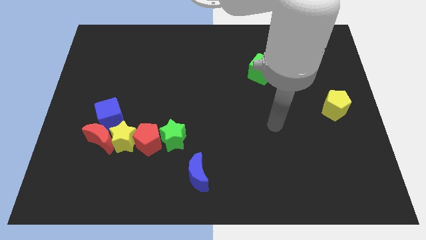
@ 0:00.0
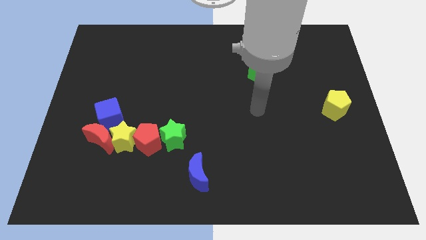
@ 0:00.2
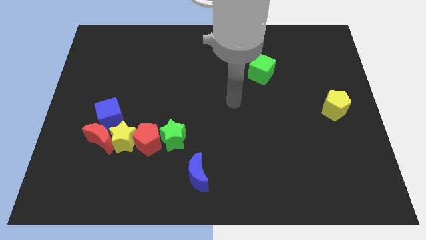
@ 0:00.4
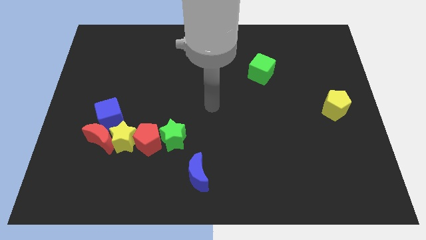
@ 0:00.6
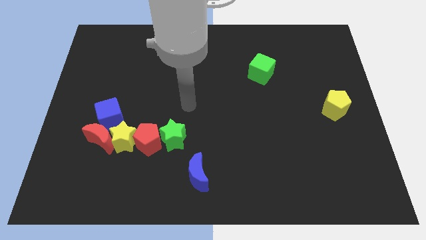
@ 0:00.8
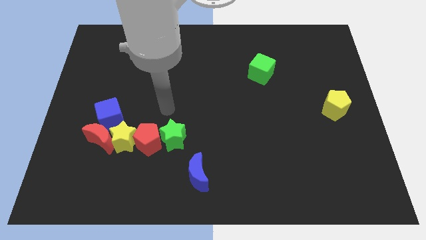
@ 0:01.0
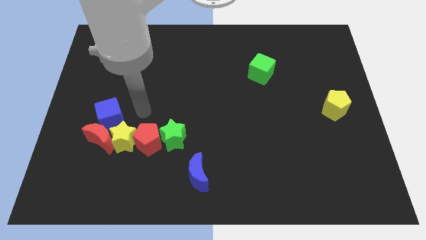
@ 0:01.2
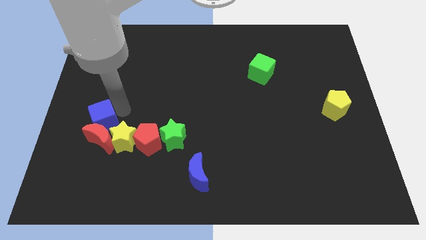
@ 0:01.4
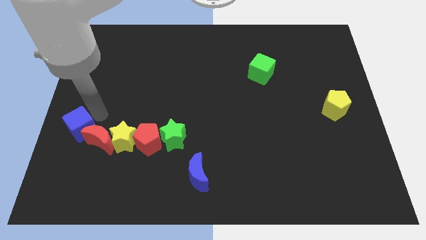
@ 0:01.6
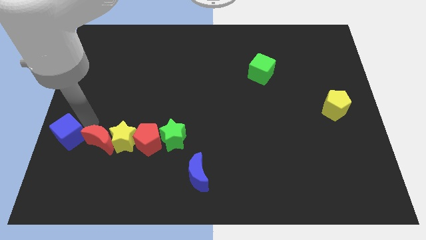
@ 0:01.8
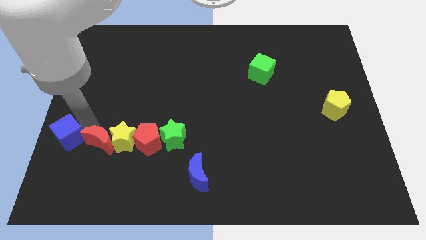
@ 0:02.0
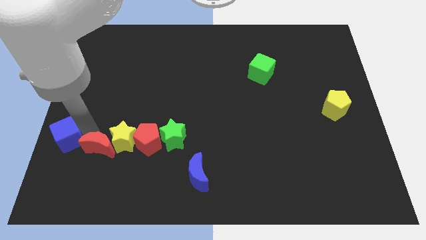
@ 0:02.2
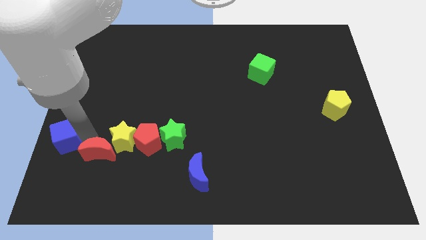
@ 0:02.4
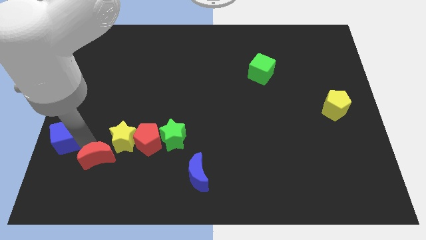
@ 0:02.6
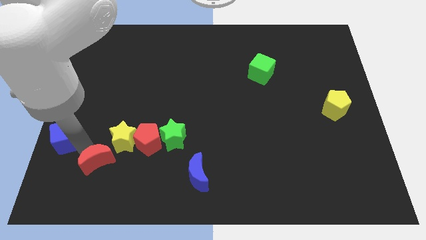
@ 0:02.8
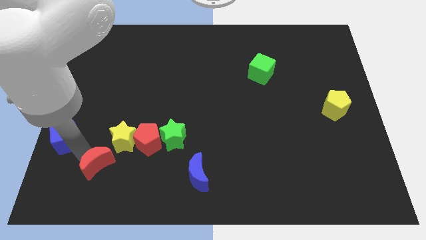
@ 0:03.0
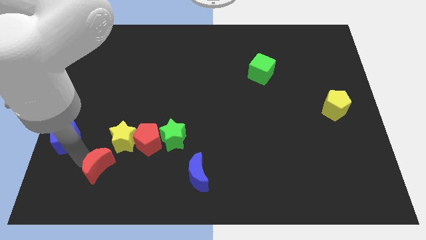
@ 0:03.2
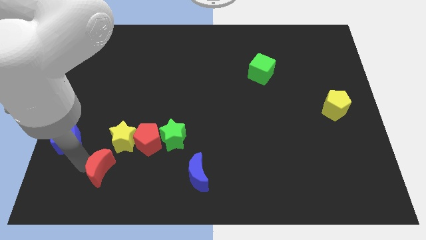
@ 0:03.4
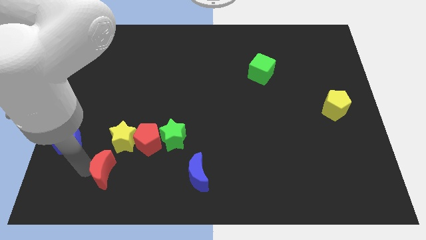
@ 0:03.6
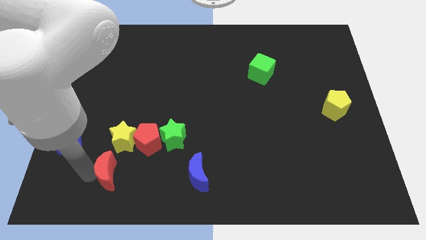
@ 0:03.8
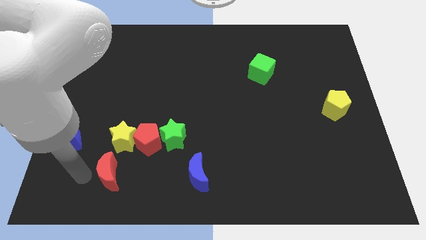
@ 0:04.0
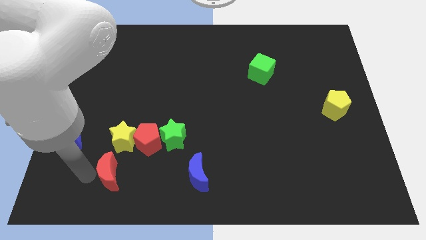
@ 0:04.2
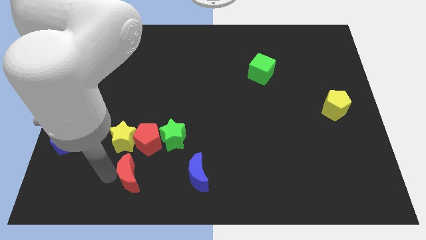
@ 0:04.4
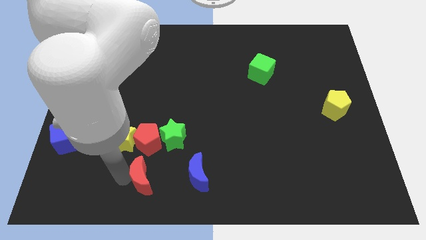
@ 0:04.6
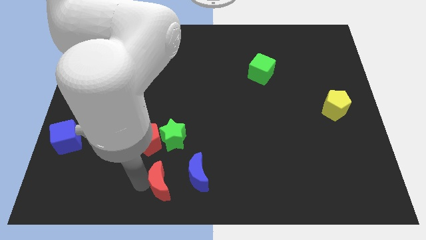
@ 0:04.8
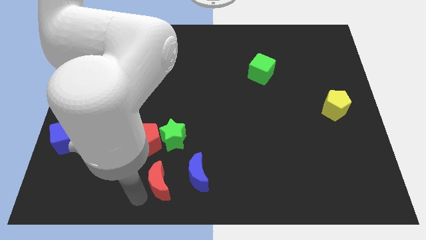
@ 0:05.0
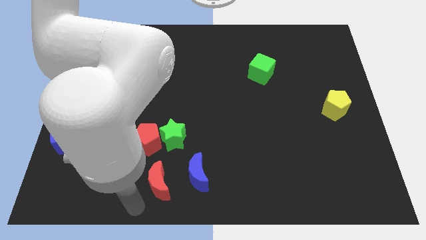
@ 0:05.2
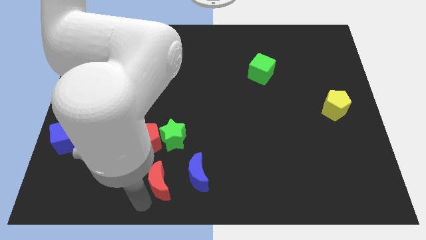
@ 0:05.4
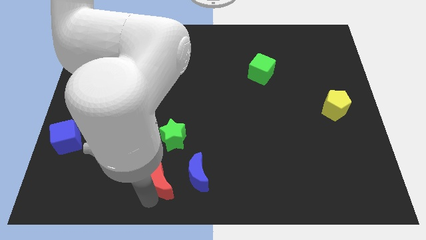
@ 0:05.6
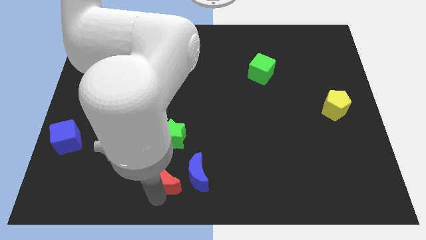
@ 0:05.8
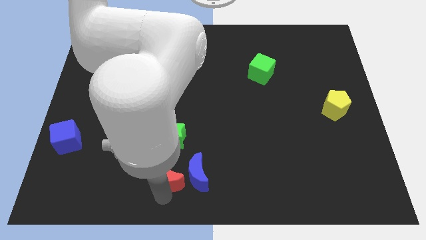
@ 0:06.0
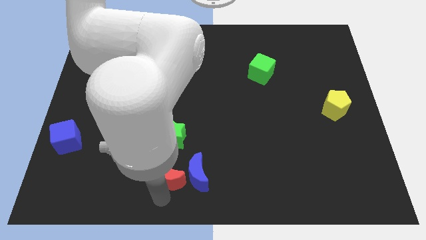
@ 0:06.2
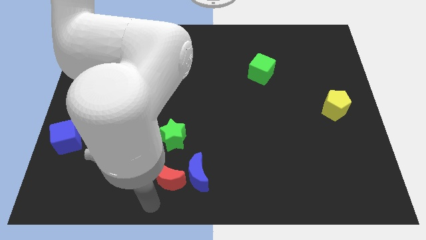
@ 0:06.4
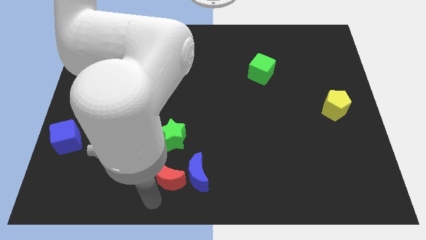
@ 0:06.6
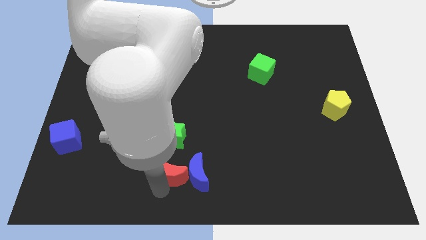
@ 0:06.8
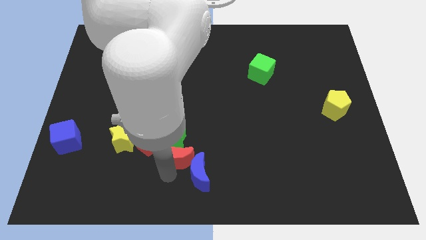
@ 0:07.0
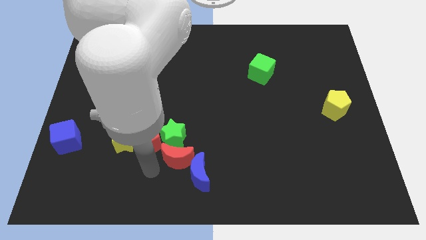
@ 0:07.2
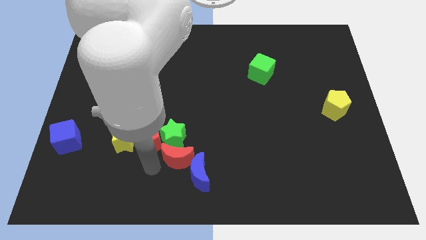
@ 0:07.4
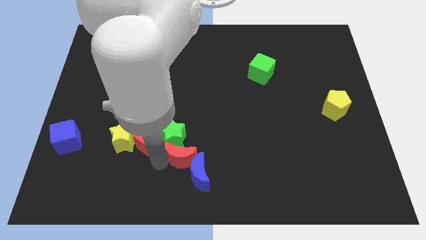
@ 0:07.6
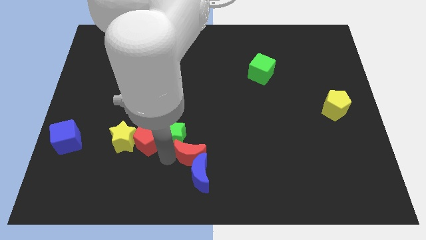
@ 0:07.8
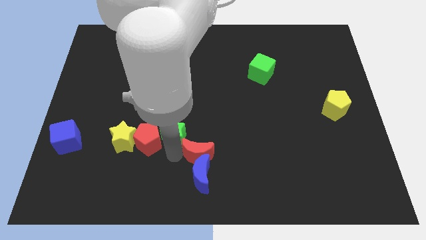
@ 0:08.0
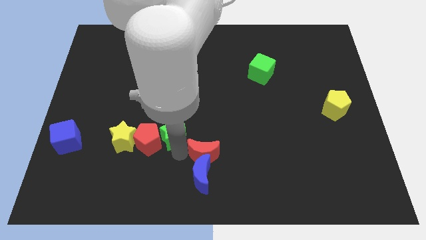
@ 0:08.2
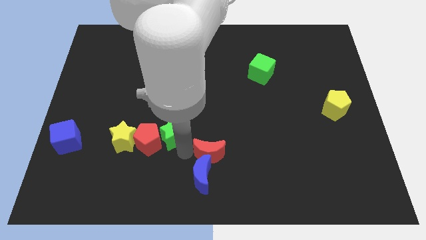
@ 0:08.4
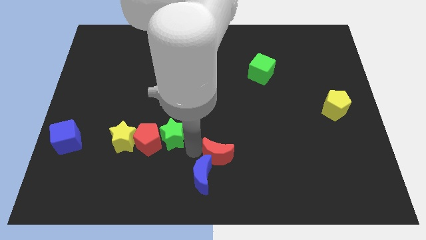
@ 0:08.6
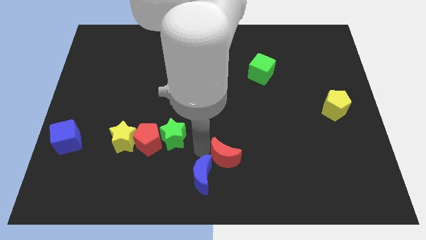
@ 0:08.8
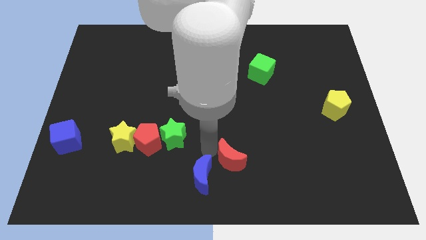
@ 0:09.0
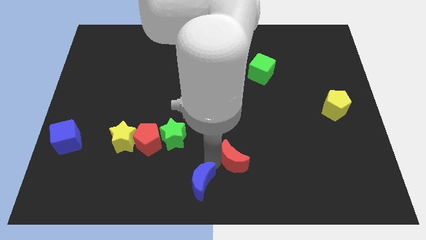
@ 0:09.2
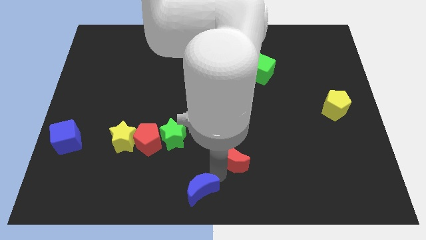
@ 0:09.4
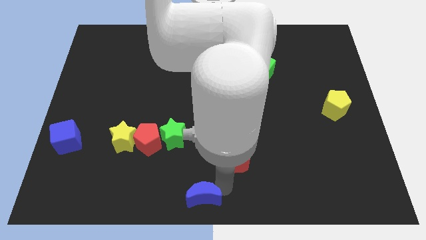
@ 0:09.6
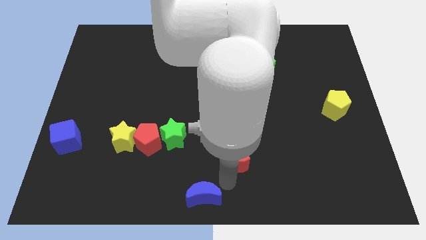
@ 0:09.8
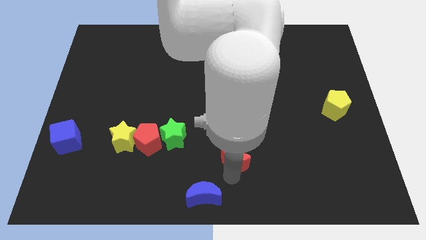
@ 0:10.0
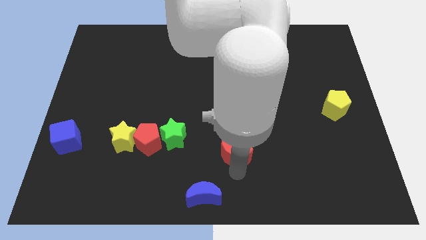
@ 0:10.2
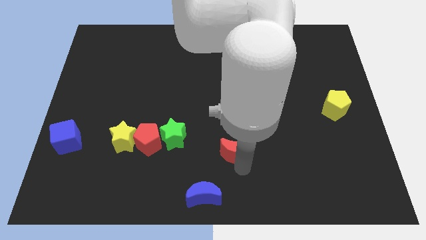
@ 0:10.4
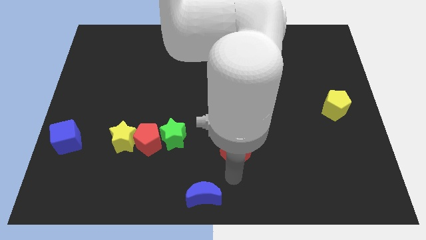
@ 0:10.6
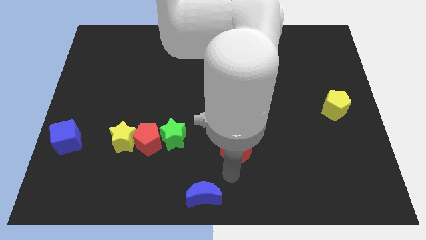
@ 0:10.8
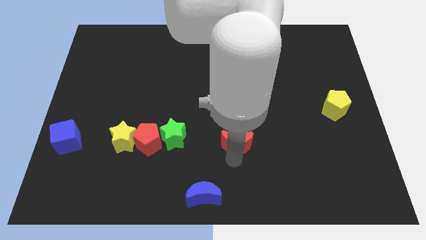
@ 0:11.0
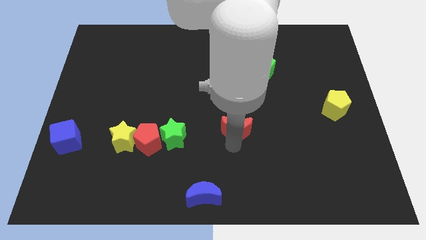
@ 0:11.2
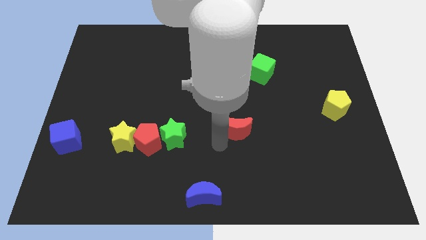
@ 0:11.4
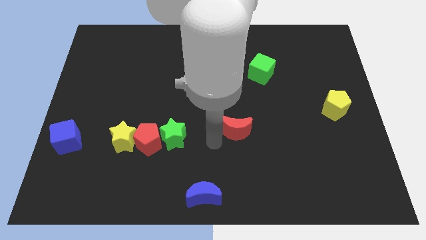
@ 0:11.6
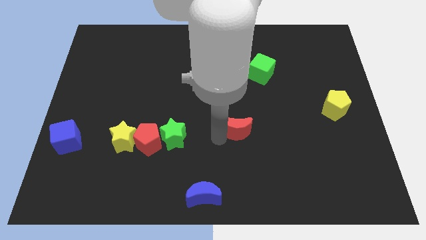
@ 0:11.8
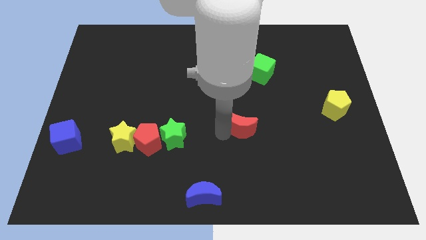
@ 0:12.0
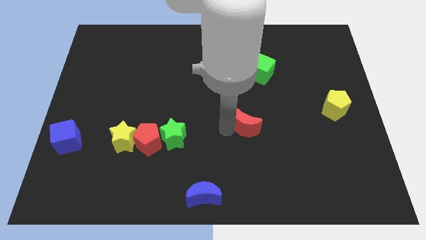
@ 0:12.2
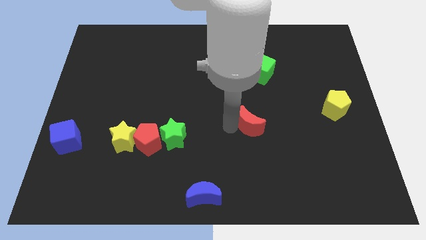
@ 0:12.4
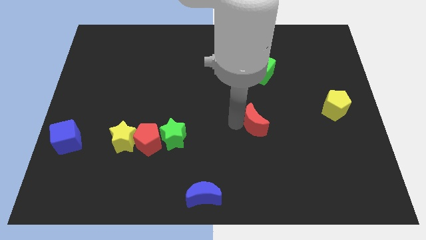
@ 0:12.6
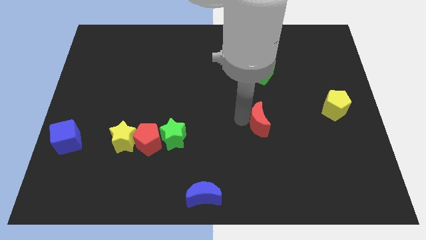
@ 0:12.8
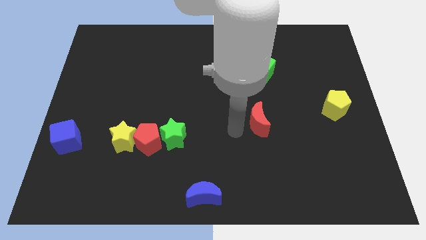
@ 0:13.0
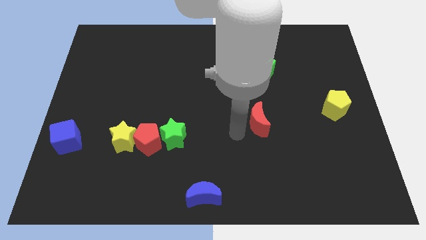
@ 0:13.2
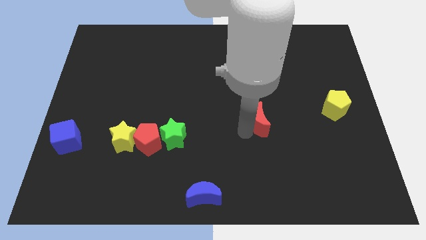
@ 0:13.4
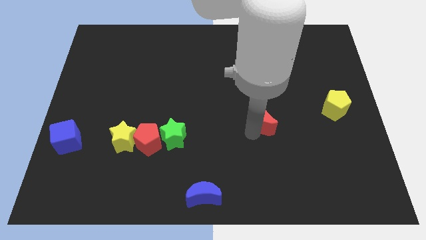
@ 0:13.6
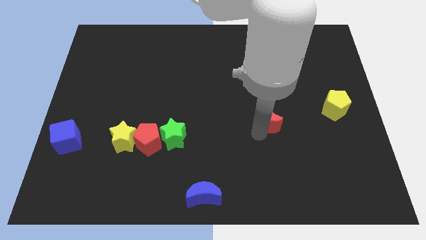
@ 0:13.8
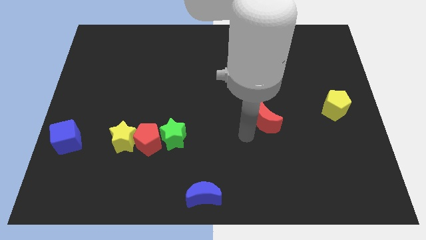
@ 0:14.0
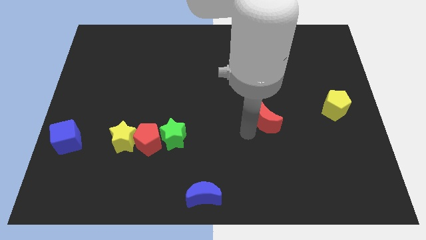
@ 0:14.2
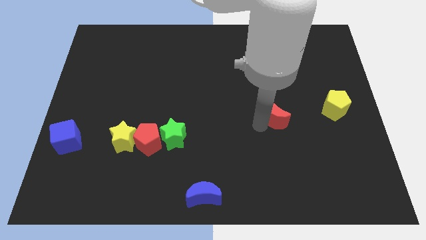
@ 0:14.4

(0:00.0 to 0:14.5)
move the red moon to the left side of the yellow pentagon
